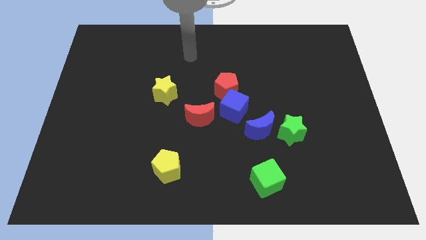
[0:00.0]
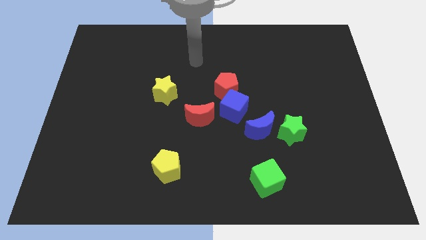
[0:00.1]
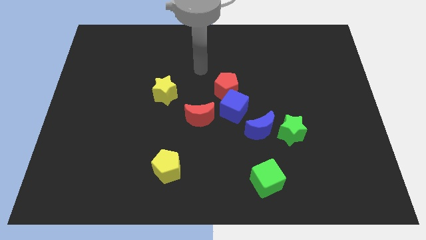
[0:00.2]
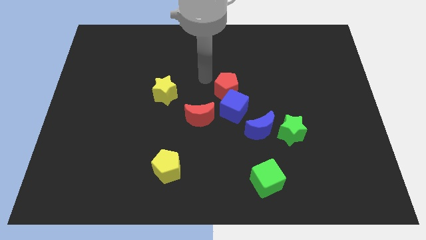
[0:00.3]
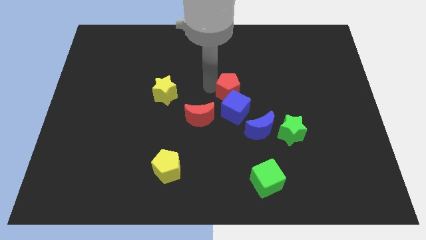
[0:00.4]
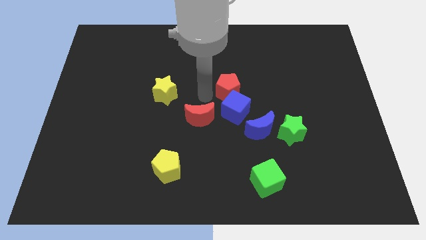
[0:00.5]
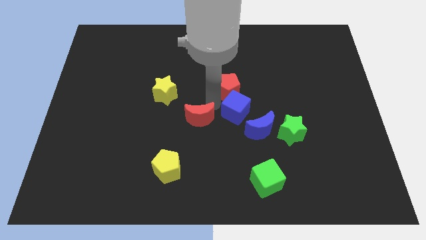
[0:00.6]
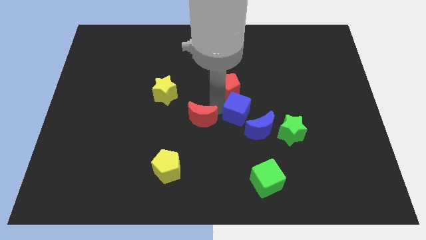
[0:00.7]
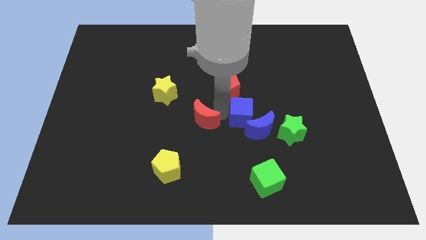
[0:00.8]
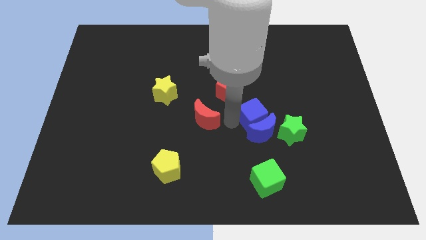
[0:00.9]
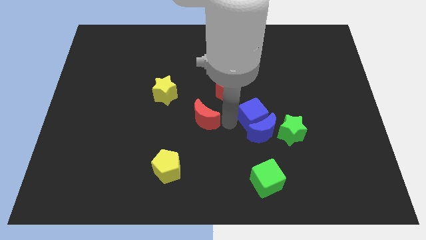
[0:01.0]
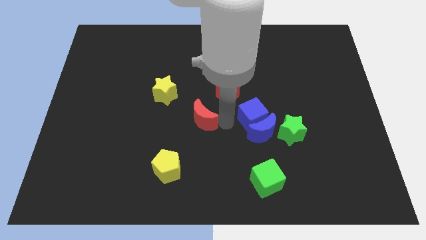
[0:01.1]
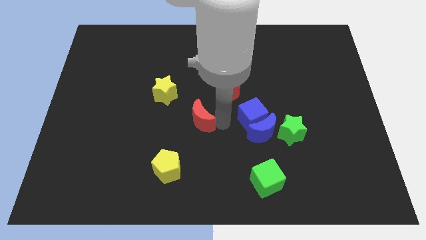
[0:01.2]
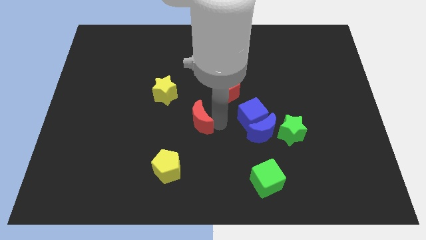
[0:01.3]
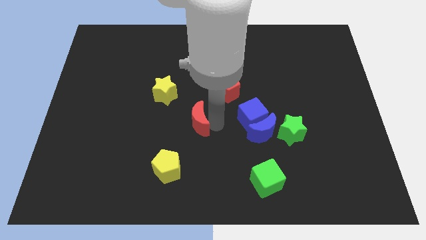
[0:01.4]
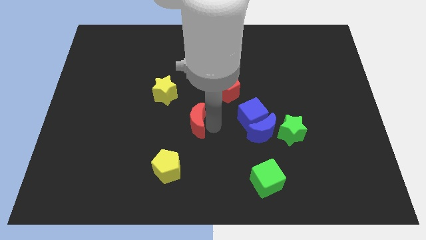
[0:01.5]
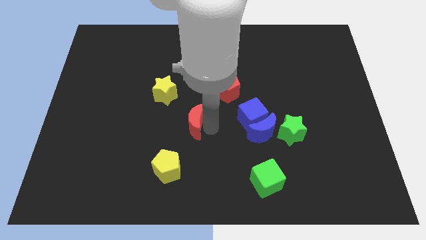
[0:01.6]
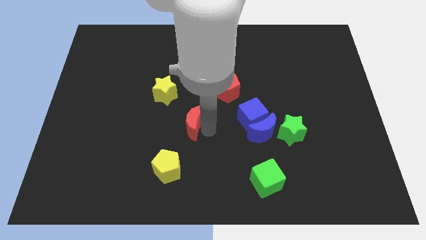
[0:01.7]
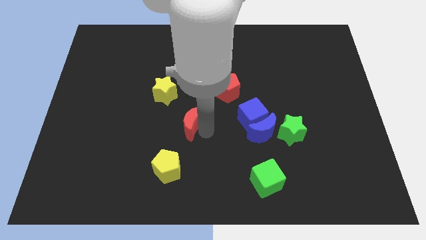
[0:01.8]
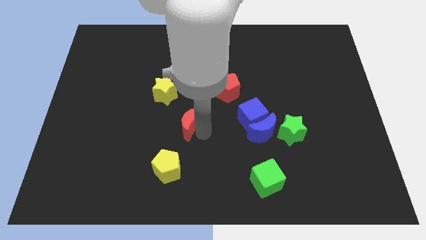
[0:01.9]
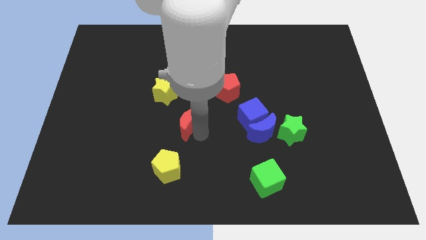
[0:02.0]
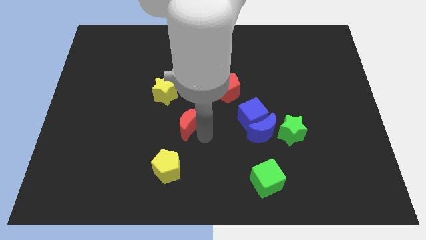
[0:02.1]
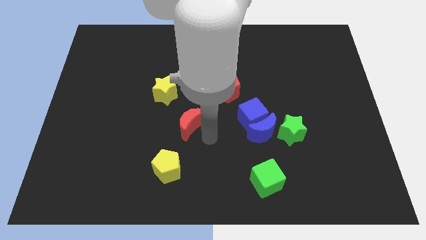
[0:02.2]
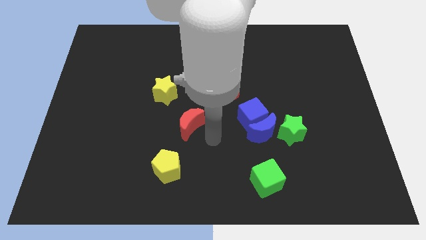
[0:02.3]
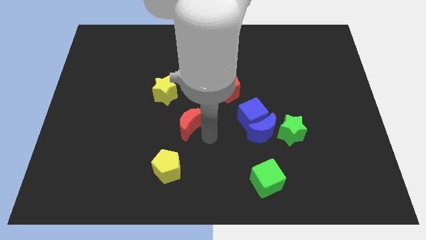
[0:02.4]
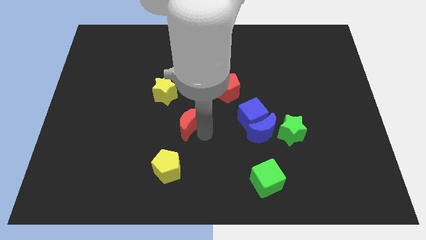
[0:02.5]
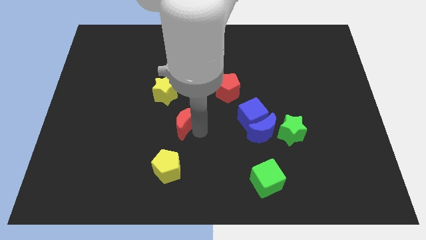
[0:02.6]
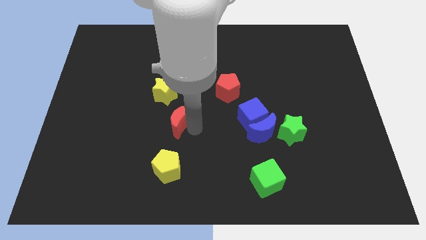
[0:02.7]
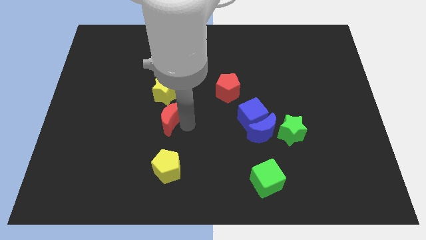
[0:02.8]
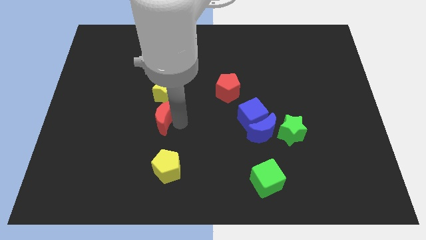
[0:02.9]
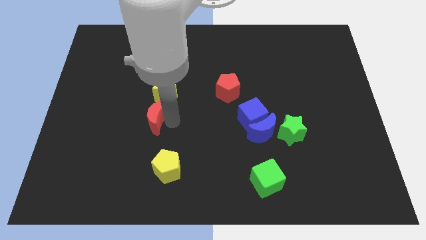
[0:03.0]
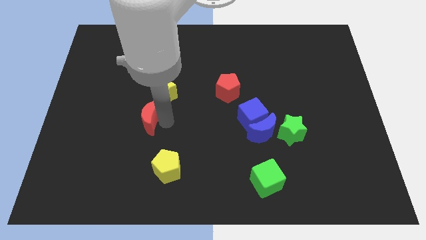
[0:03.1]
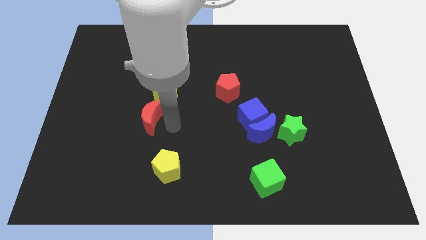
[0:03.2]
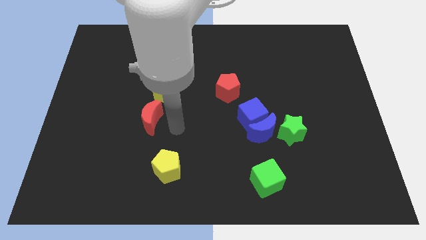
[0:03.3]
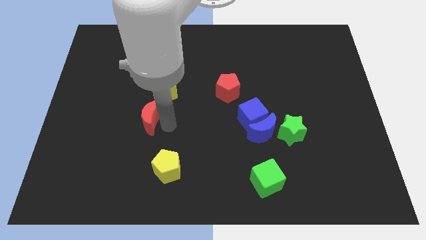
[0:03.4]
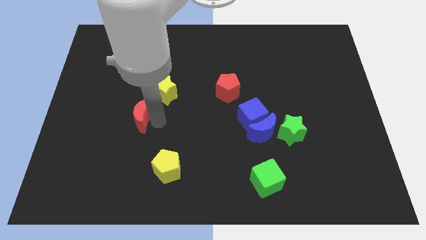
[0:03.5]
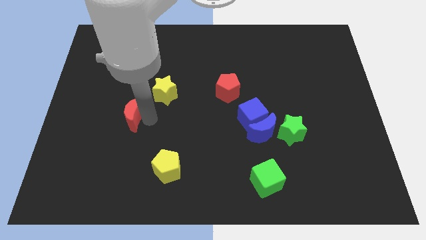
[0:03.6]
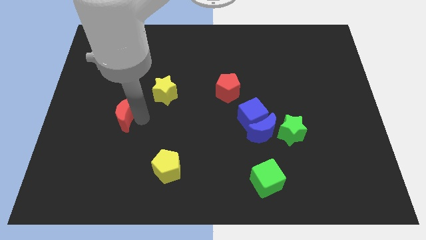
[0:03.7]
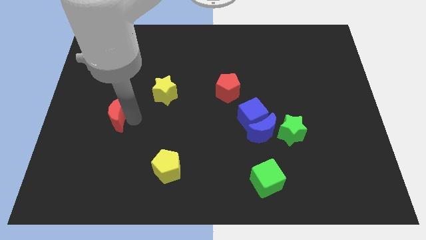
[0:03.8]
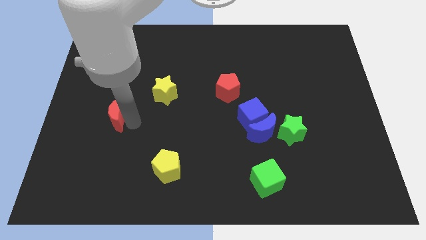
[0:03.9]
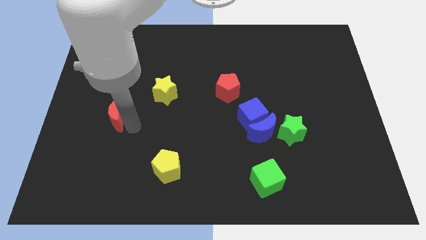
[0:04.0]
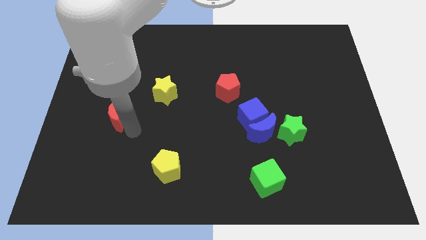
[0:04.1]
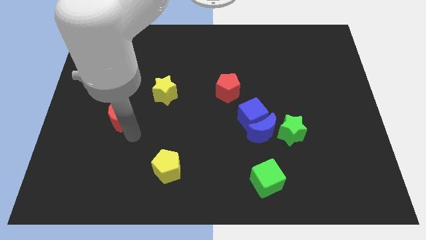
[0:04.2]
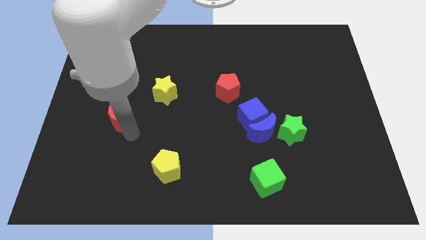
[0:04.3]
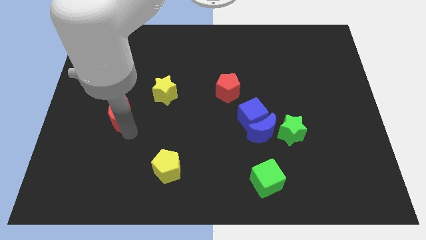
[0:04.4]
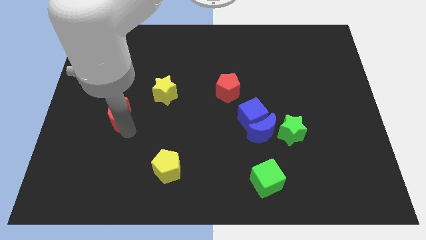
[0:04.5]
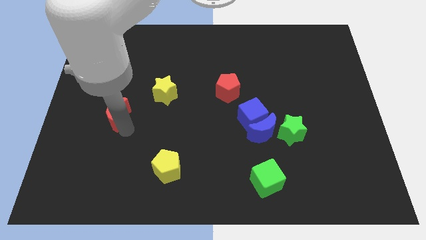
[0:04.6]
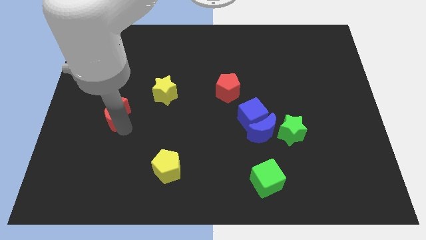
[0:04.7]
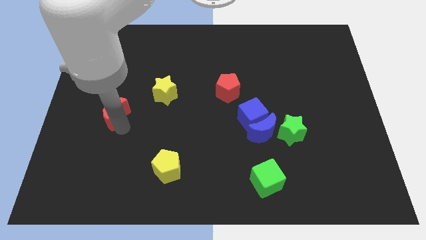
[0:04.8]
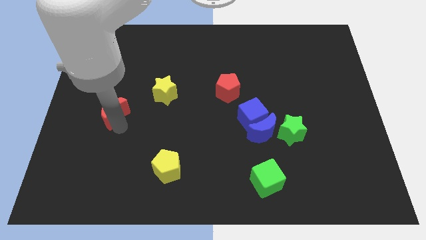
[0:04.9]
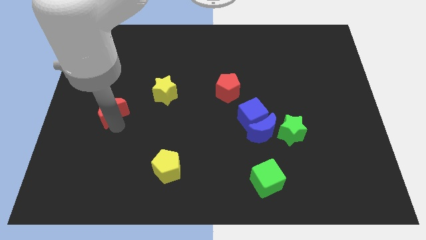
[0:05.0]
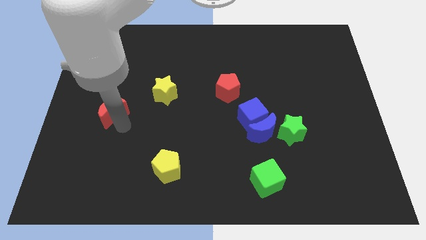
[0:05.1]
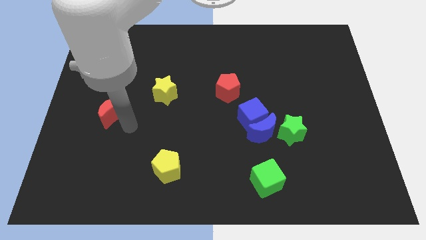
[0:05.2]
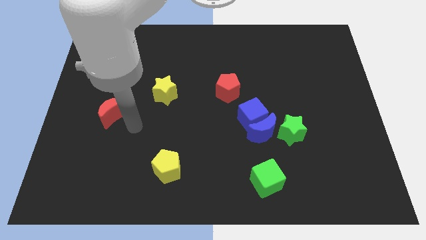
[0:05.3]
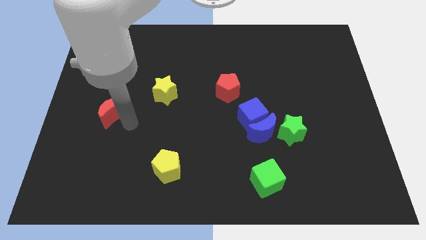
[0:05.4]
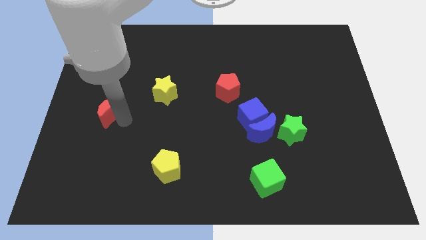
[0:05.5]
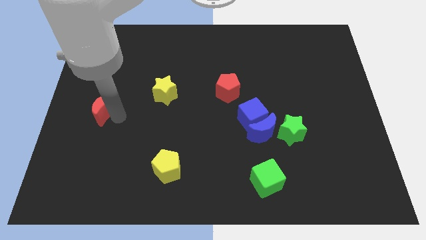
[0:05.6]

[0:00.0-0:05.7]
move the red moon to the center left

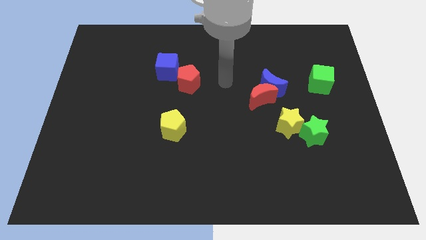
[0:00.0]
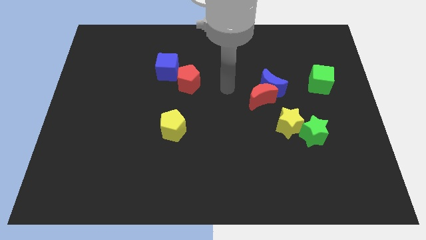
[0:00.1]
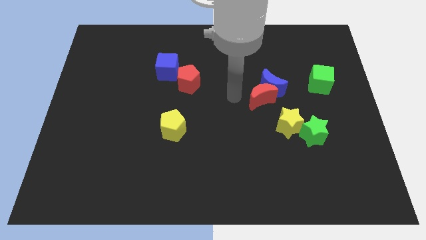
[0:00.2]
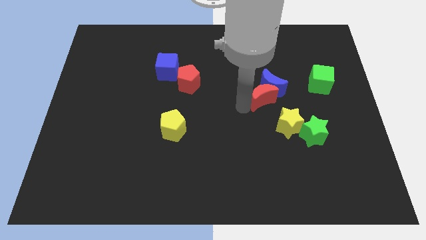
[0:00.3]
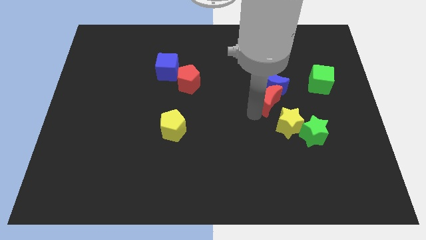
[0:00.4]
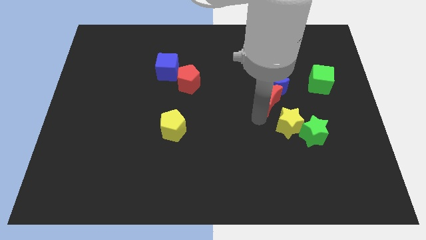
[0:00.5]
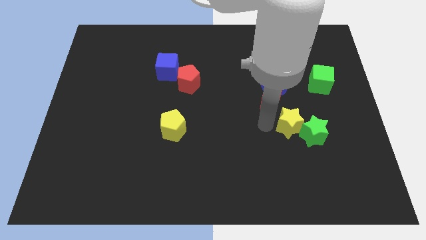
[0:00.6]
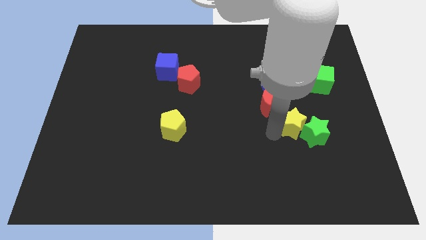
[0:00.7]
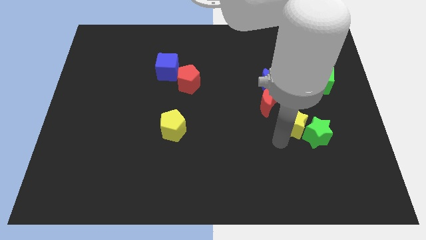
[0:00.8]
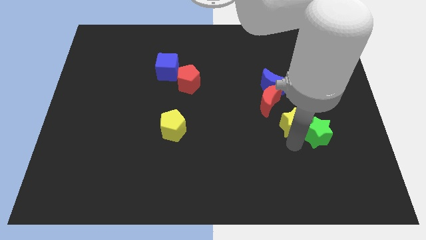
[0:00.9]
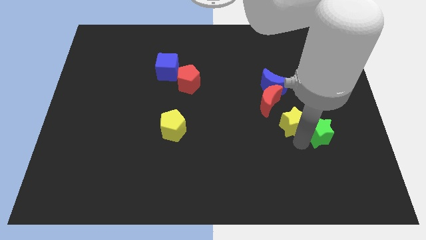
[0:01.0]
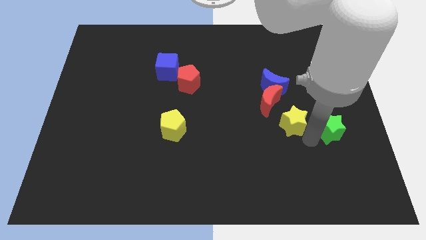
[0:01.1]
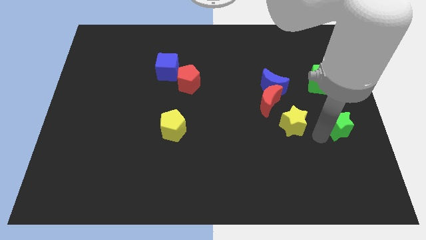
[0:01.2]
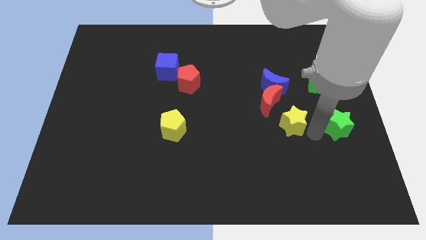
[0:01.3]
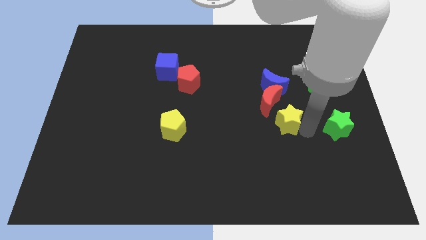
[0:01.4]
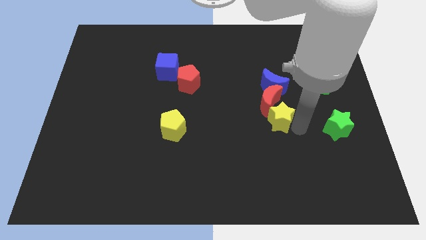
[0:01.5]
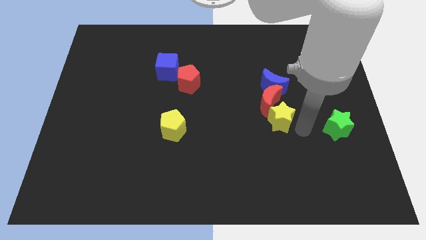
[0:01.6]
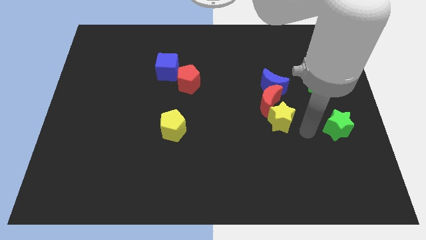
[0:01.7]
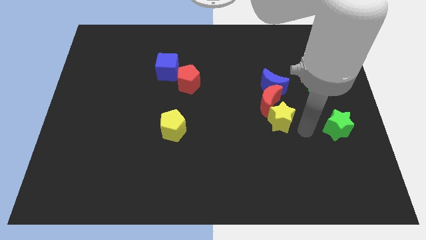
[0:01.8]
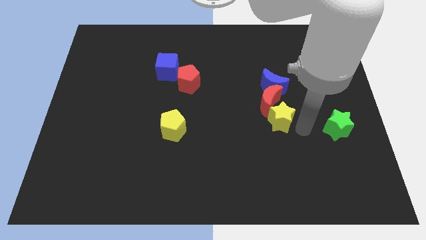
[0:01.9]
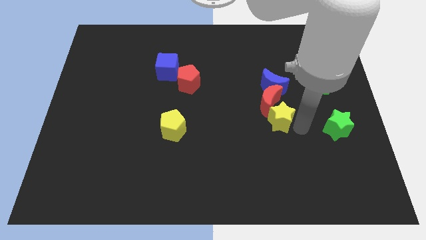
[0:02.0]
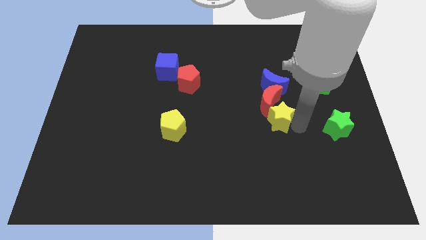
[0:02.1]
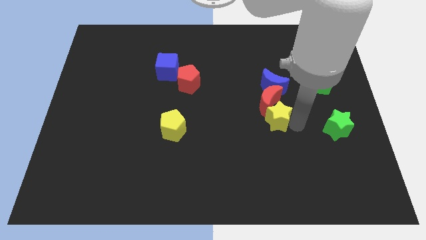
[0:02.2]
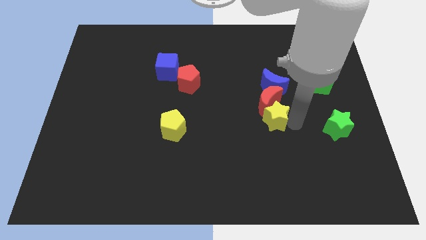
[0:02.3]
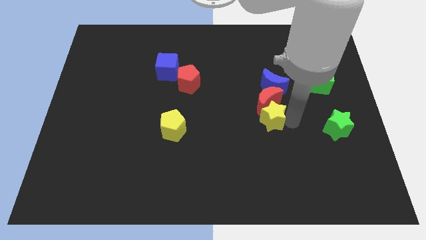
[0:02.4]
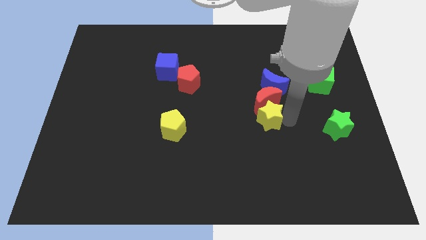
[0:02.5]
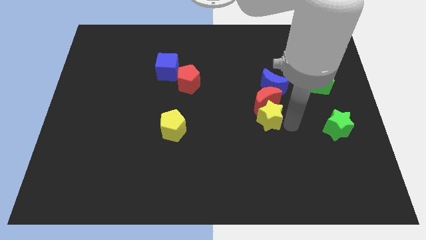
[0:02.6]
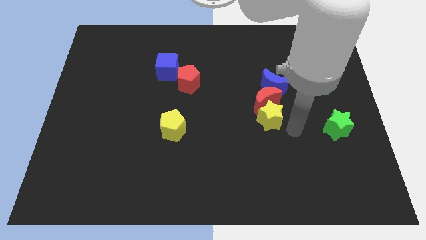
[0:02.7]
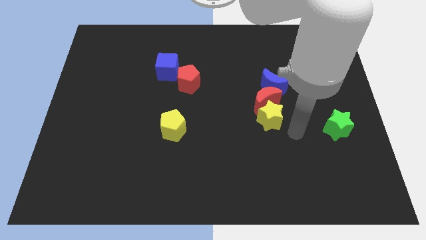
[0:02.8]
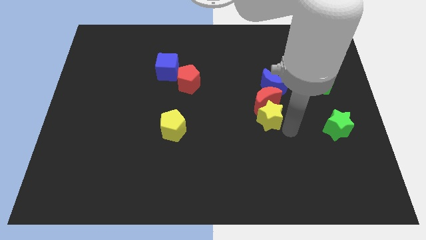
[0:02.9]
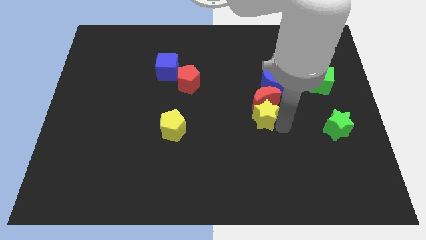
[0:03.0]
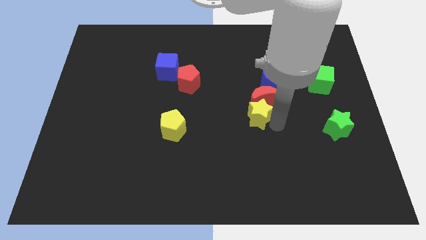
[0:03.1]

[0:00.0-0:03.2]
slide the yellow star to the center of the board
